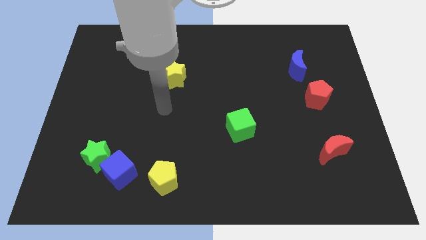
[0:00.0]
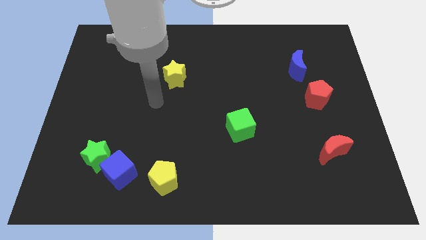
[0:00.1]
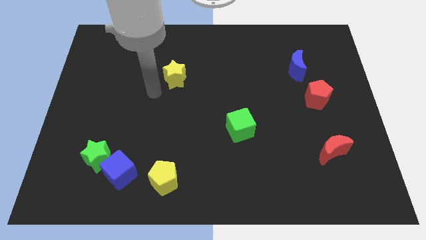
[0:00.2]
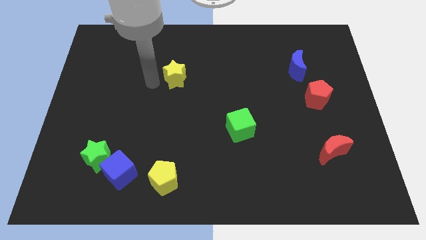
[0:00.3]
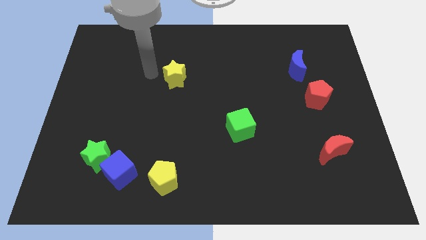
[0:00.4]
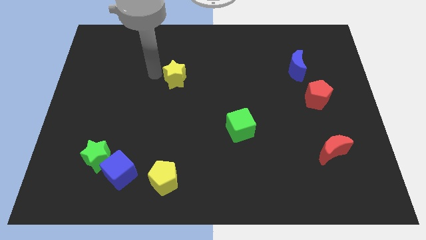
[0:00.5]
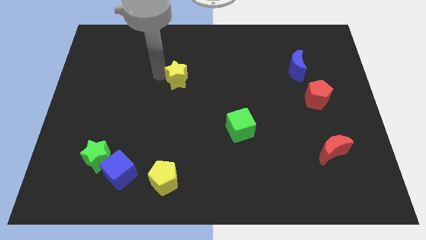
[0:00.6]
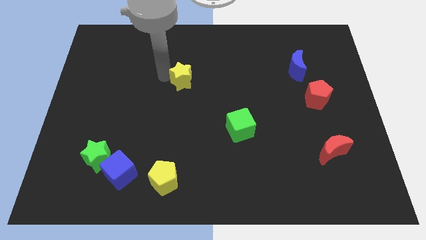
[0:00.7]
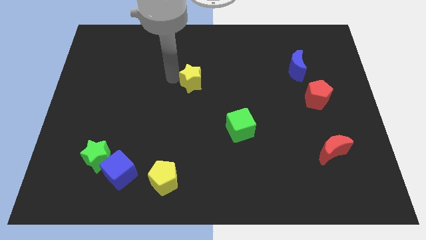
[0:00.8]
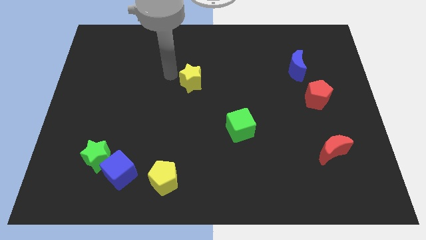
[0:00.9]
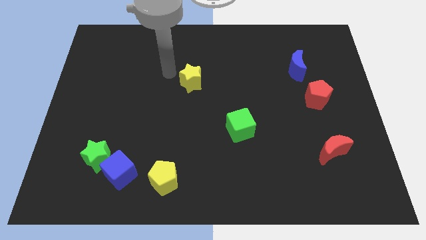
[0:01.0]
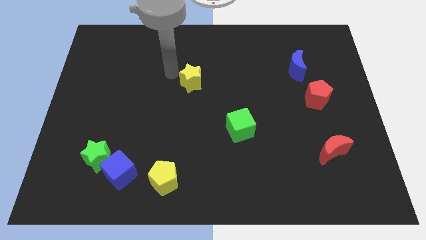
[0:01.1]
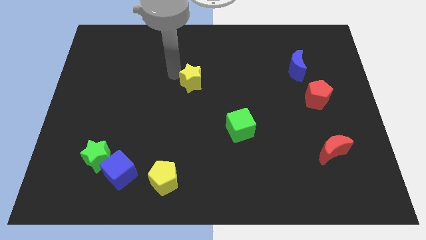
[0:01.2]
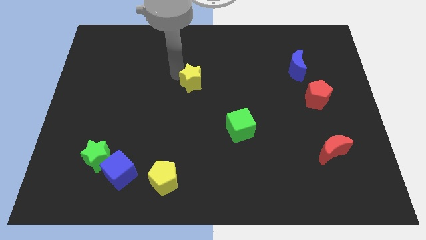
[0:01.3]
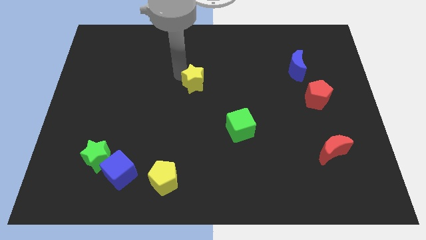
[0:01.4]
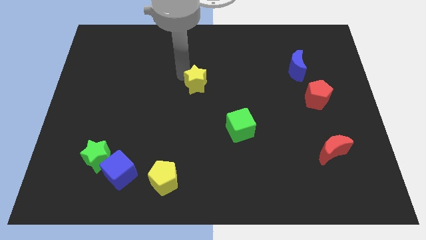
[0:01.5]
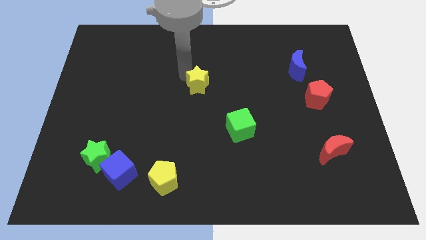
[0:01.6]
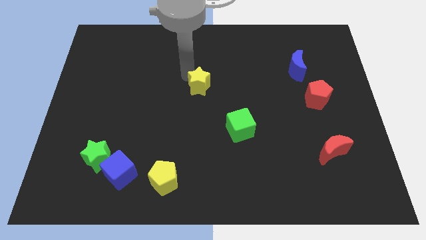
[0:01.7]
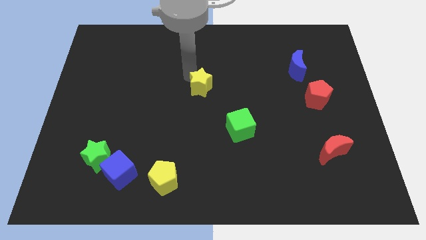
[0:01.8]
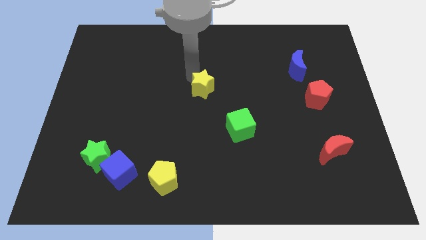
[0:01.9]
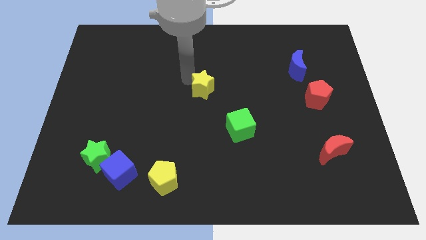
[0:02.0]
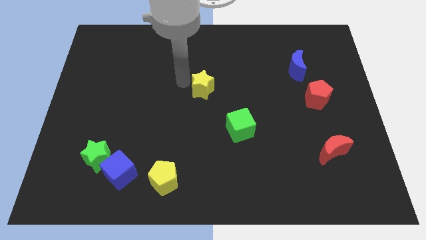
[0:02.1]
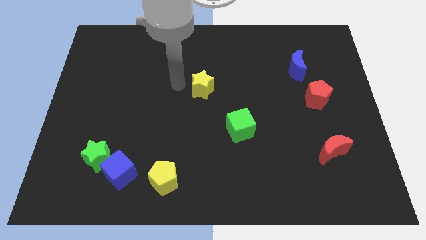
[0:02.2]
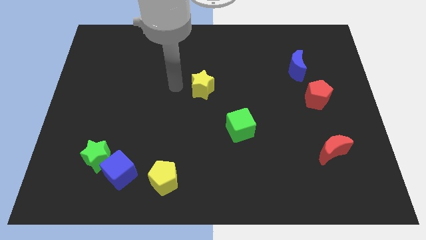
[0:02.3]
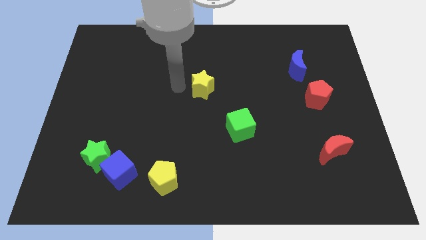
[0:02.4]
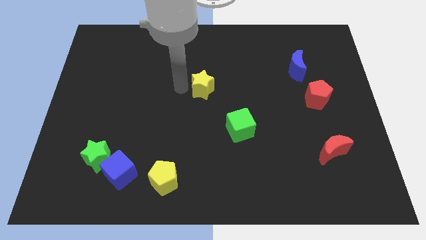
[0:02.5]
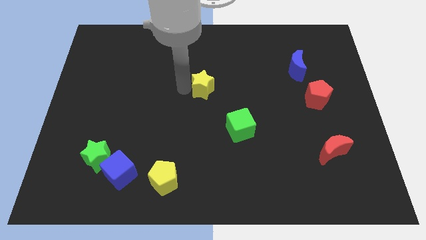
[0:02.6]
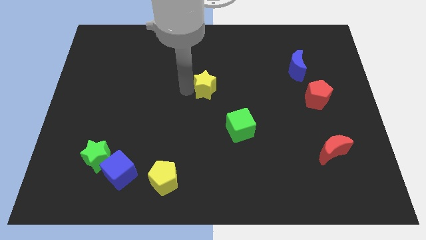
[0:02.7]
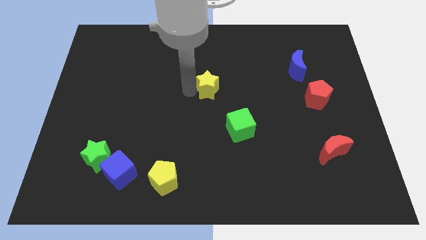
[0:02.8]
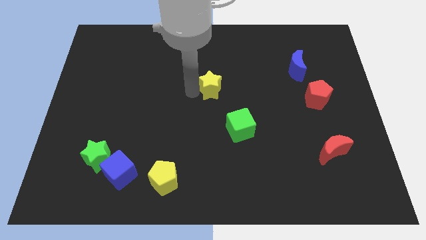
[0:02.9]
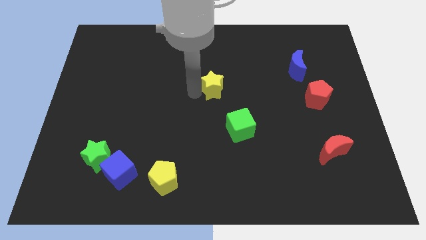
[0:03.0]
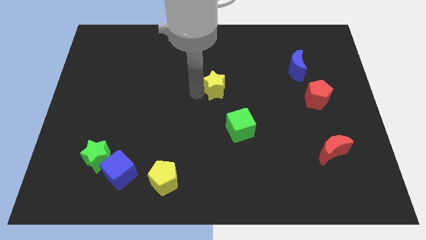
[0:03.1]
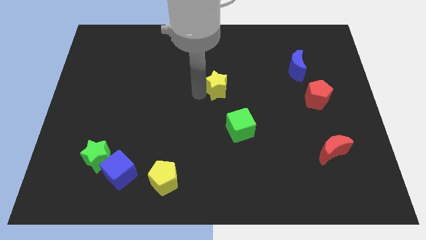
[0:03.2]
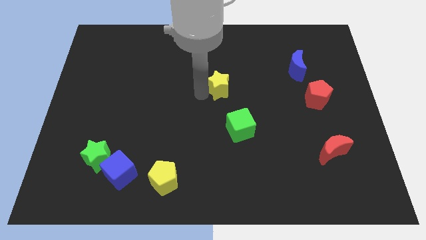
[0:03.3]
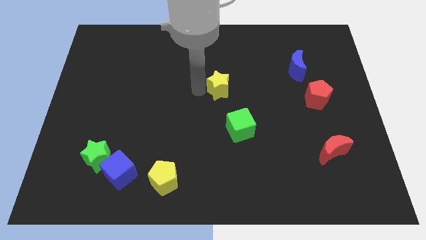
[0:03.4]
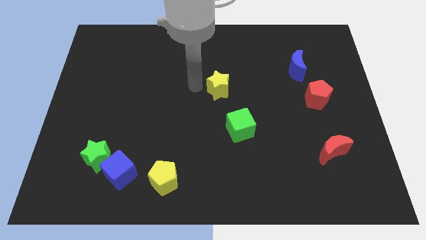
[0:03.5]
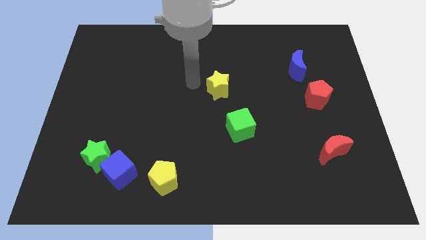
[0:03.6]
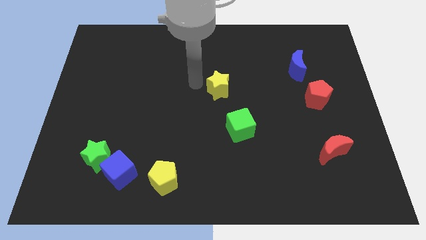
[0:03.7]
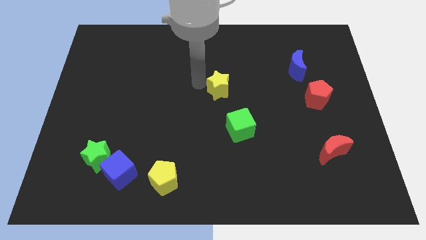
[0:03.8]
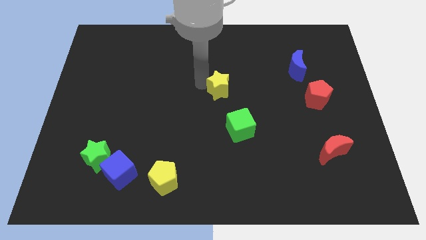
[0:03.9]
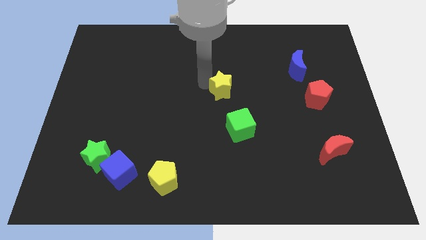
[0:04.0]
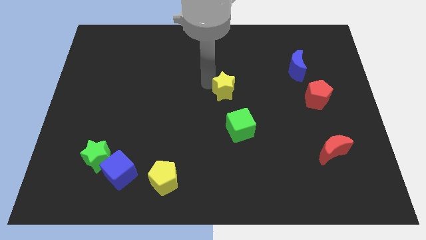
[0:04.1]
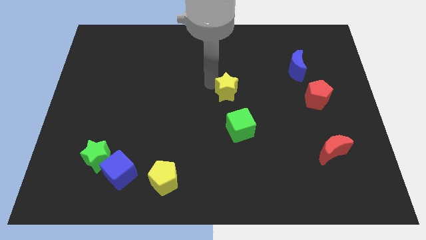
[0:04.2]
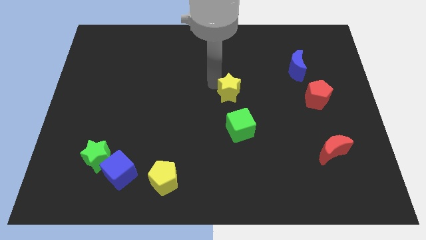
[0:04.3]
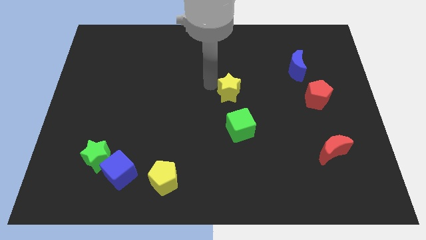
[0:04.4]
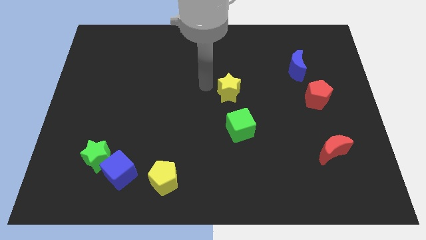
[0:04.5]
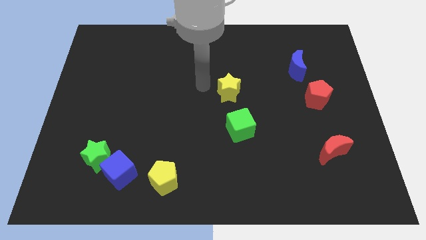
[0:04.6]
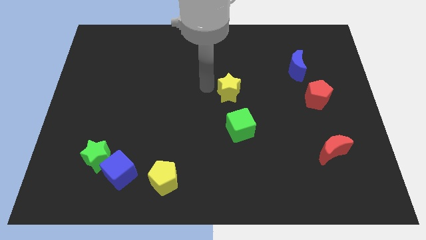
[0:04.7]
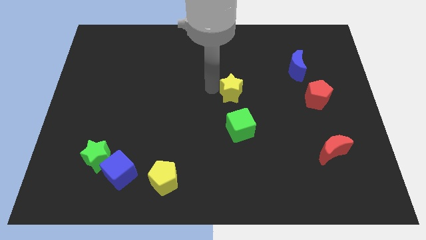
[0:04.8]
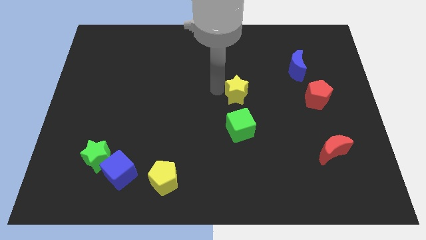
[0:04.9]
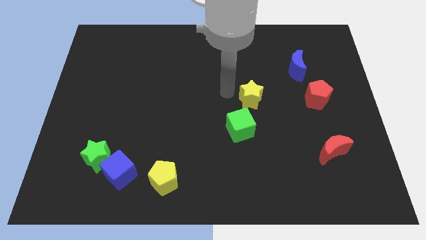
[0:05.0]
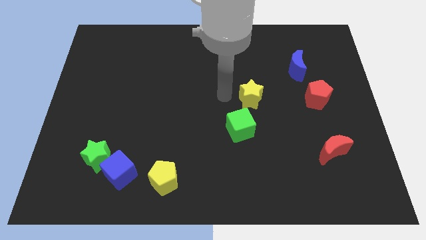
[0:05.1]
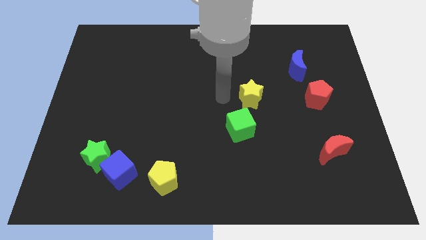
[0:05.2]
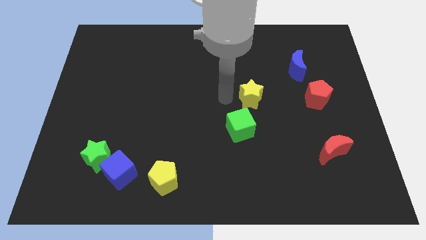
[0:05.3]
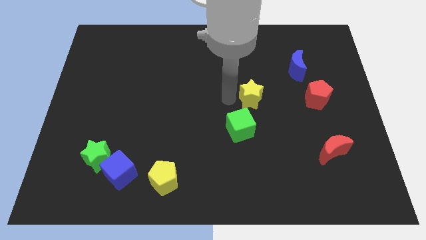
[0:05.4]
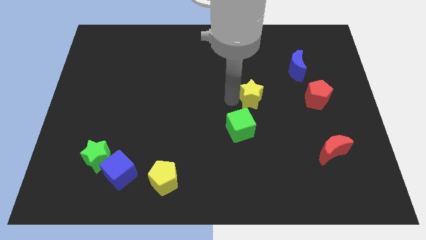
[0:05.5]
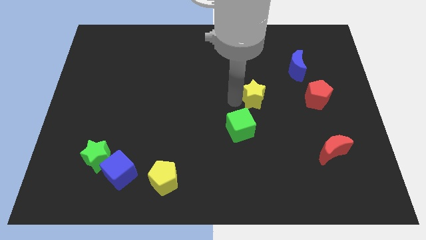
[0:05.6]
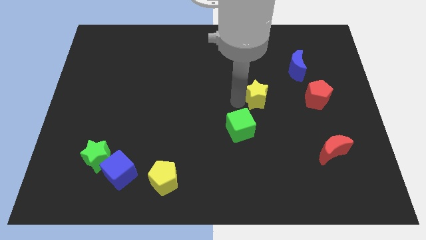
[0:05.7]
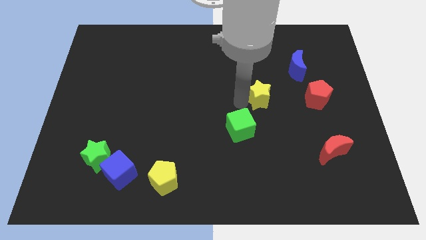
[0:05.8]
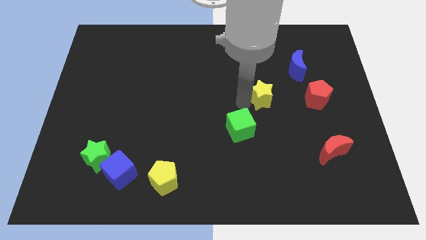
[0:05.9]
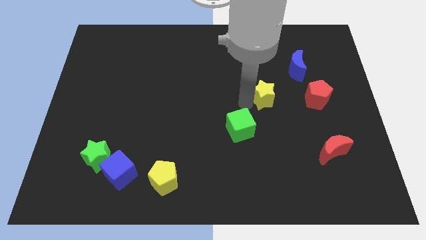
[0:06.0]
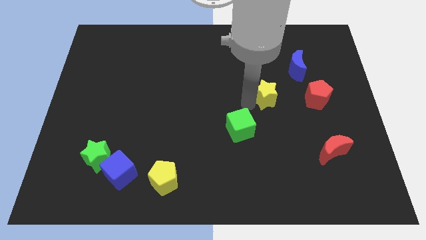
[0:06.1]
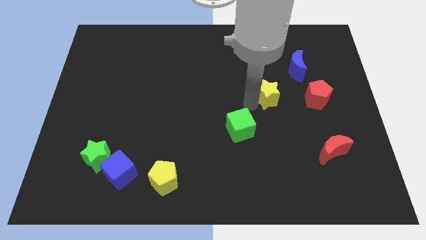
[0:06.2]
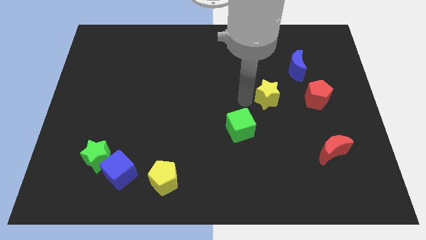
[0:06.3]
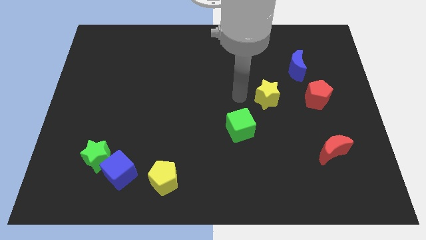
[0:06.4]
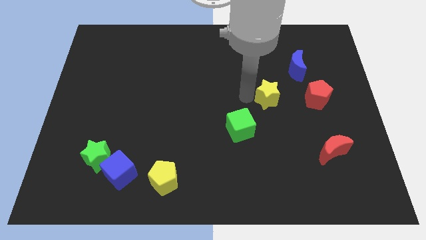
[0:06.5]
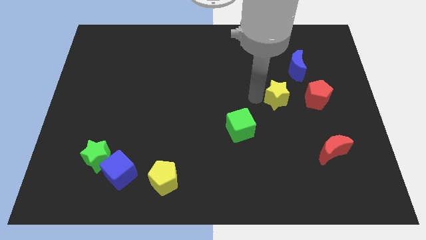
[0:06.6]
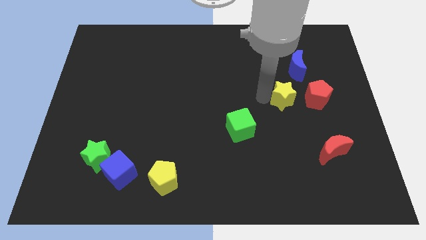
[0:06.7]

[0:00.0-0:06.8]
put the yellow star below the blue moon

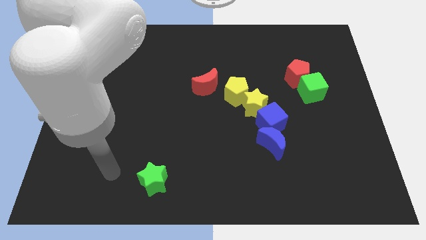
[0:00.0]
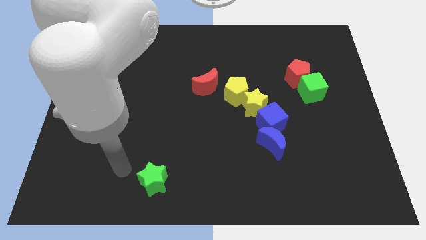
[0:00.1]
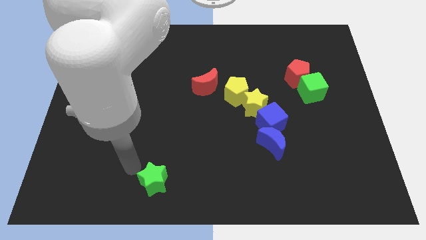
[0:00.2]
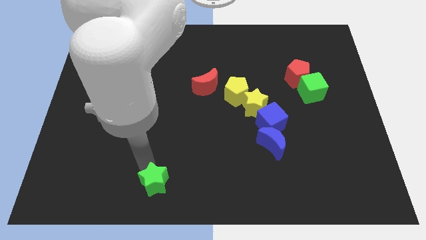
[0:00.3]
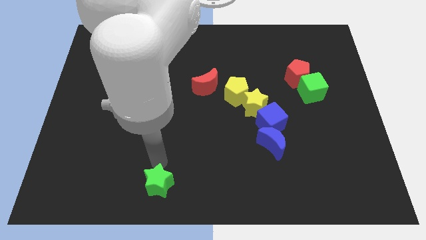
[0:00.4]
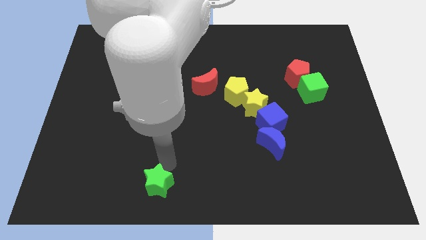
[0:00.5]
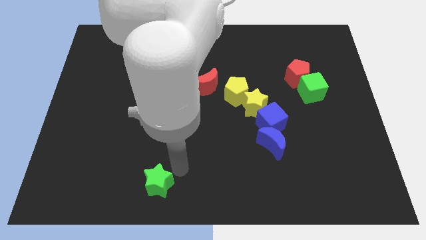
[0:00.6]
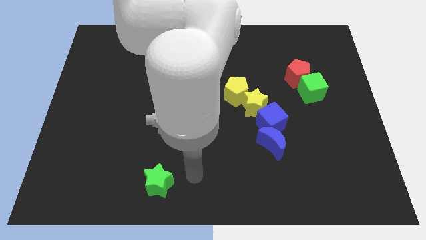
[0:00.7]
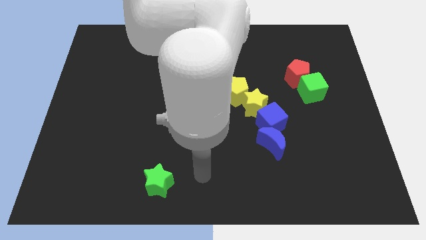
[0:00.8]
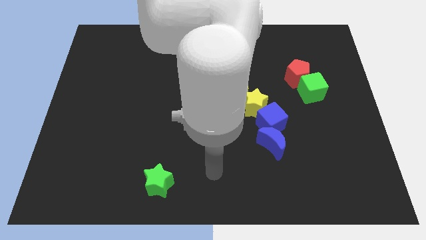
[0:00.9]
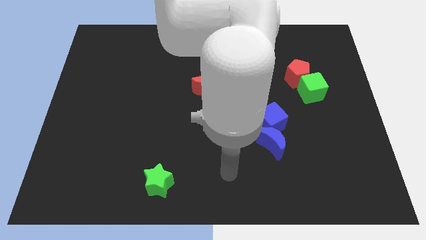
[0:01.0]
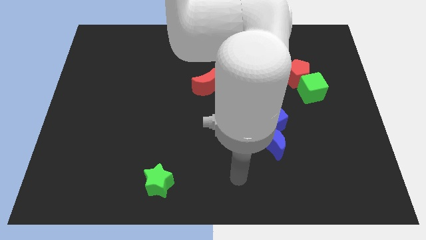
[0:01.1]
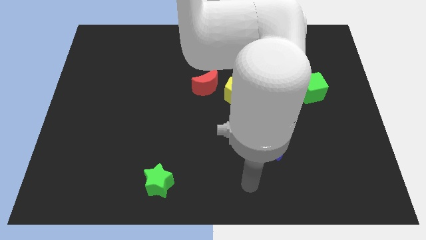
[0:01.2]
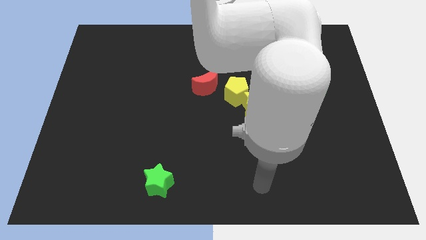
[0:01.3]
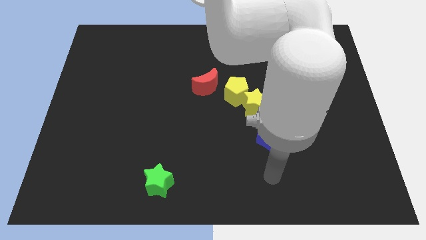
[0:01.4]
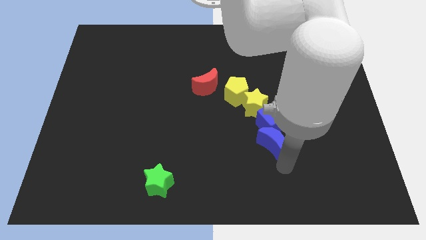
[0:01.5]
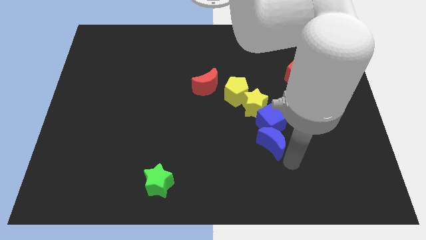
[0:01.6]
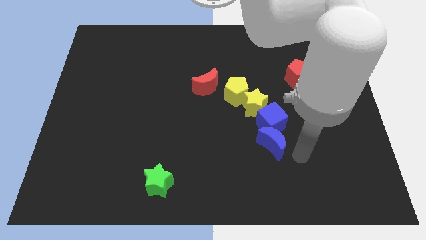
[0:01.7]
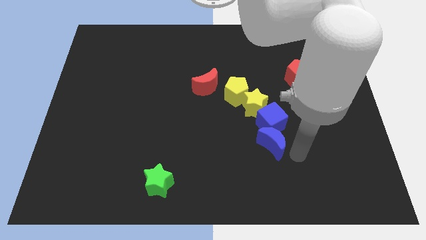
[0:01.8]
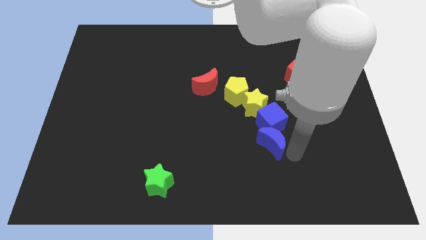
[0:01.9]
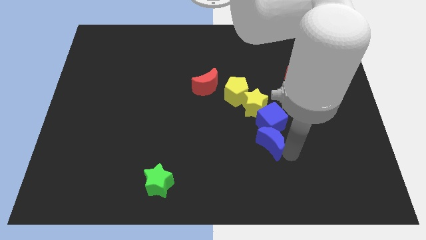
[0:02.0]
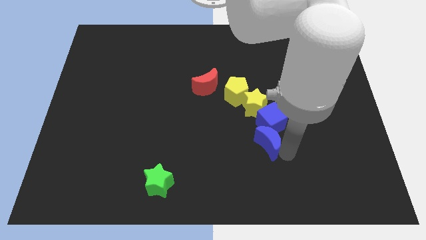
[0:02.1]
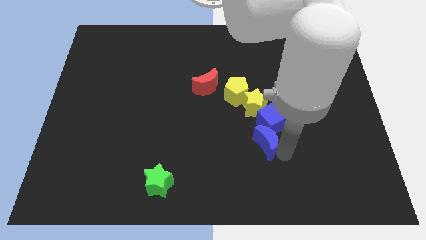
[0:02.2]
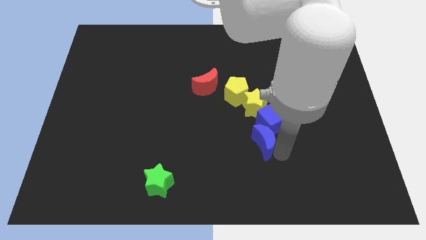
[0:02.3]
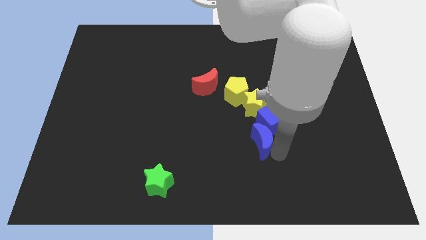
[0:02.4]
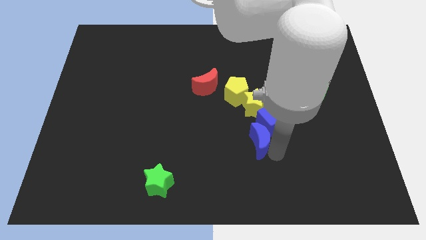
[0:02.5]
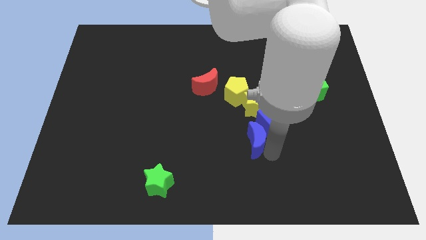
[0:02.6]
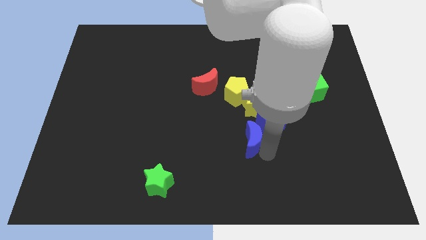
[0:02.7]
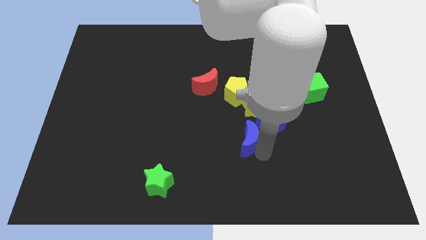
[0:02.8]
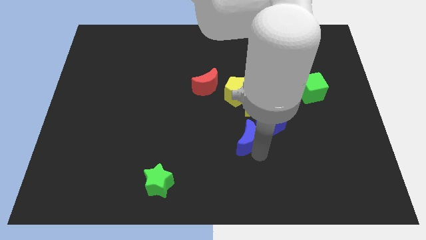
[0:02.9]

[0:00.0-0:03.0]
slide the blue moon to the left side of the blue cube
